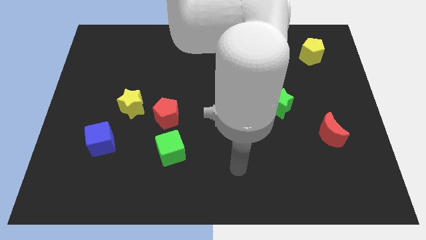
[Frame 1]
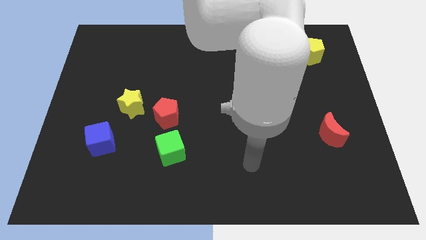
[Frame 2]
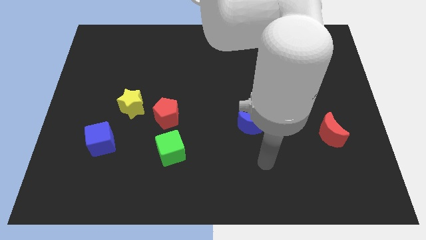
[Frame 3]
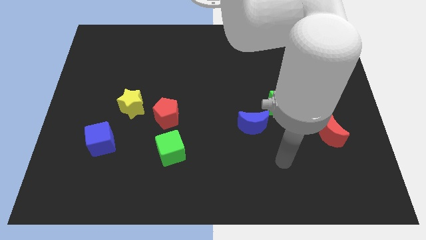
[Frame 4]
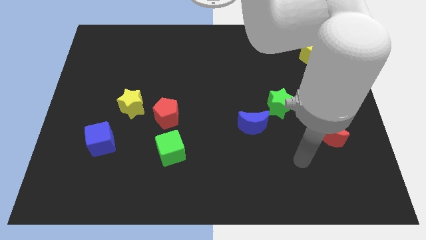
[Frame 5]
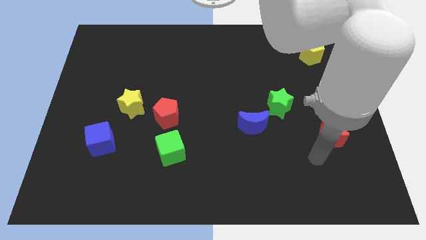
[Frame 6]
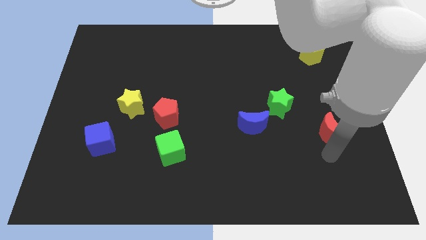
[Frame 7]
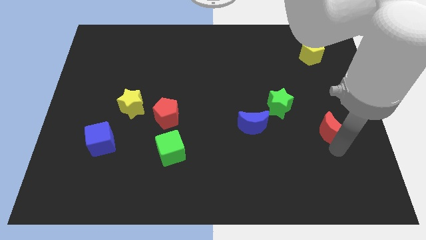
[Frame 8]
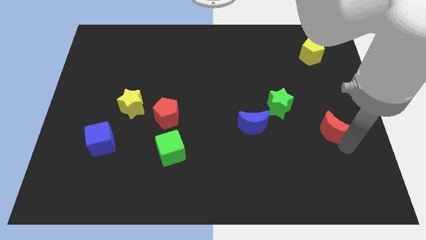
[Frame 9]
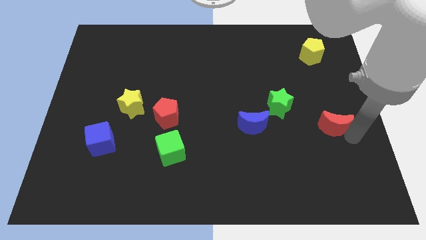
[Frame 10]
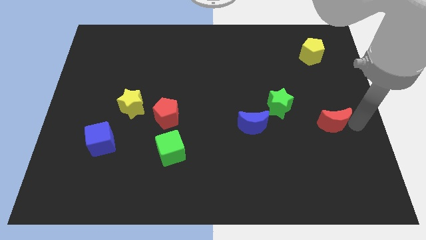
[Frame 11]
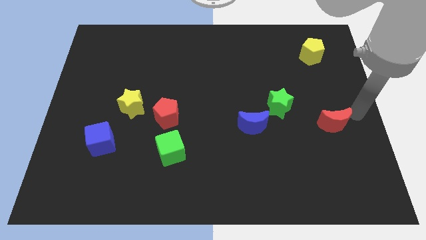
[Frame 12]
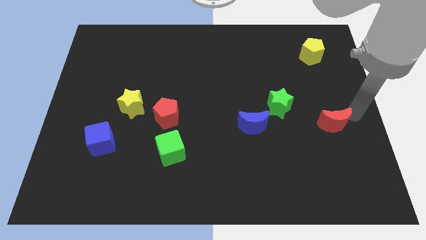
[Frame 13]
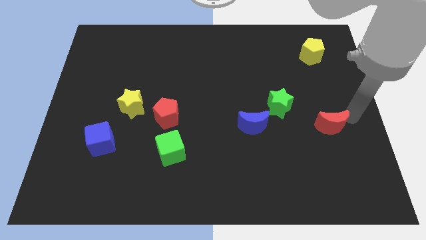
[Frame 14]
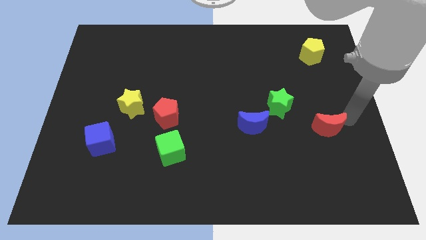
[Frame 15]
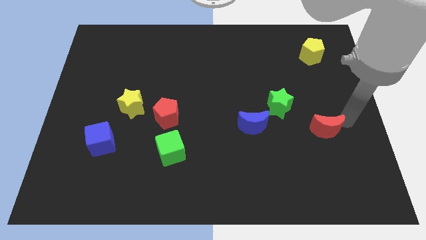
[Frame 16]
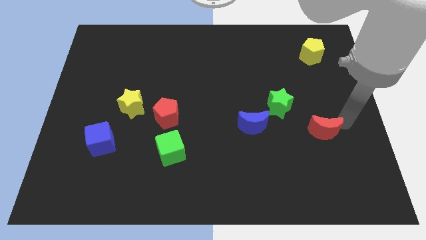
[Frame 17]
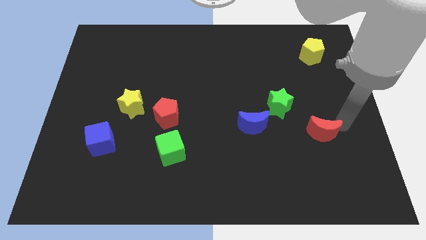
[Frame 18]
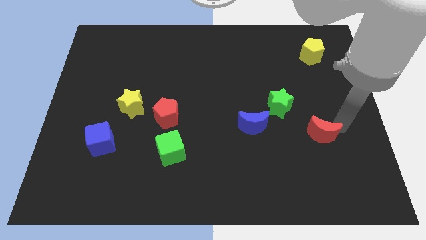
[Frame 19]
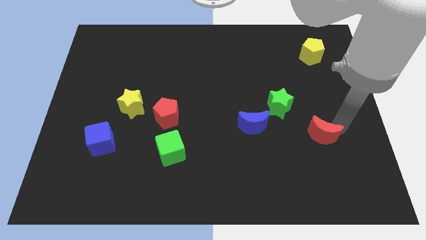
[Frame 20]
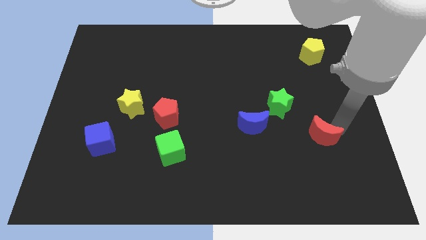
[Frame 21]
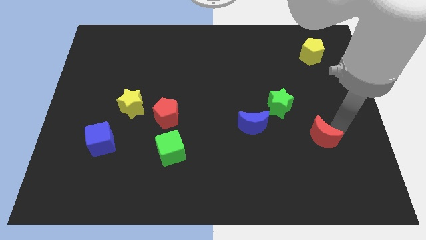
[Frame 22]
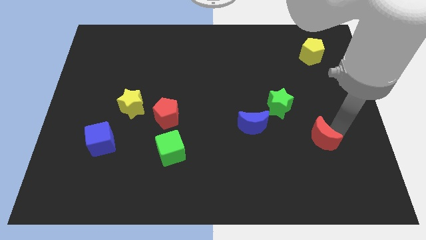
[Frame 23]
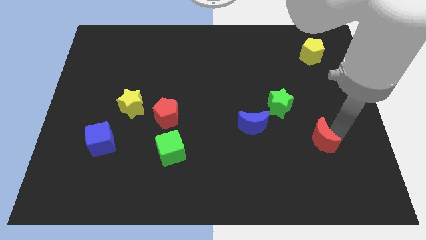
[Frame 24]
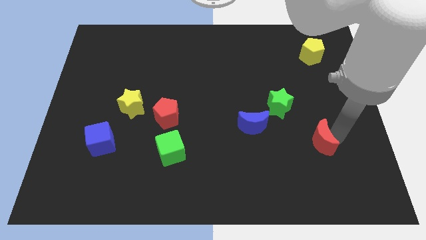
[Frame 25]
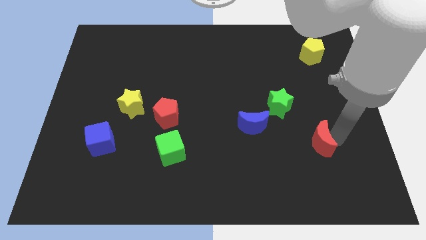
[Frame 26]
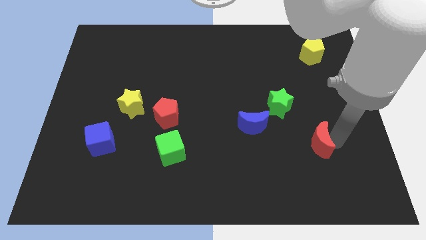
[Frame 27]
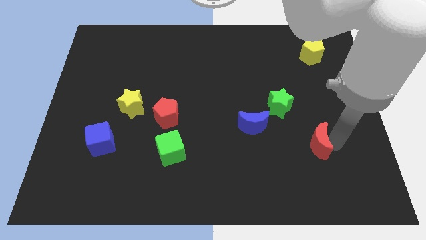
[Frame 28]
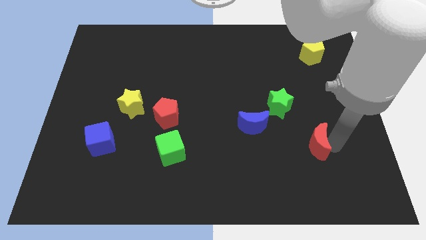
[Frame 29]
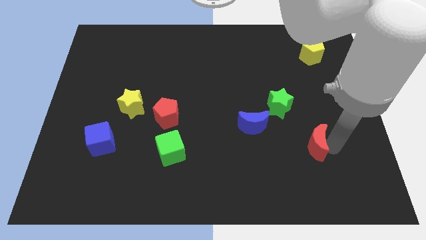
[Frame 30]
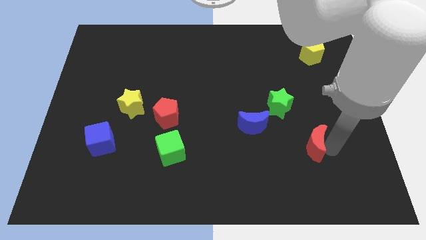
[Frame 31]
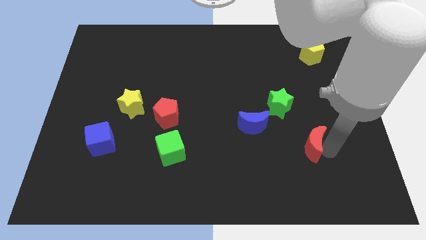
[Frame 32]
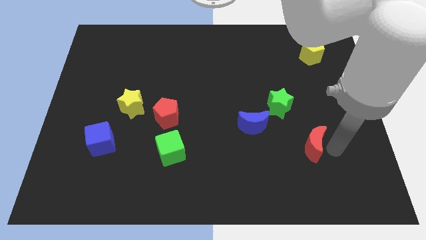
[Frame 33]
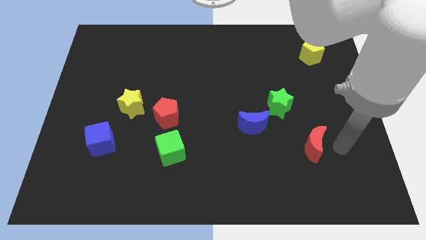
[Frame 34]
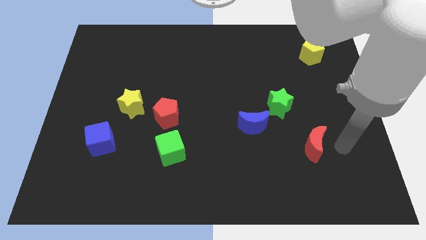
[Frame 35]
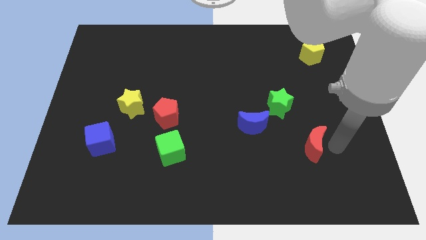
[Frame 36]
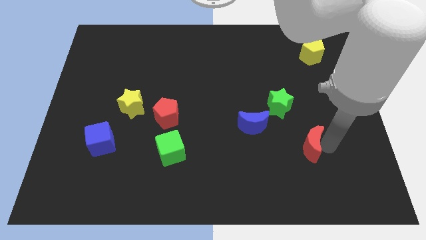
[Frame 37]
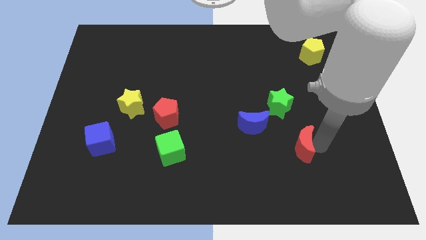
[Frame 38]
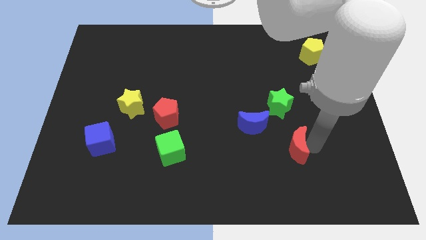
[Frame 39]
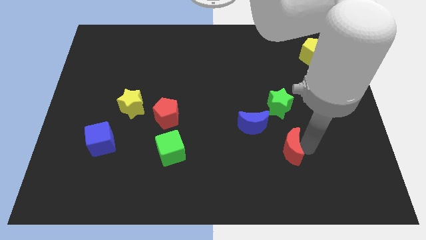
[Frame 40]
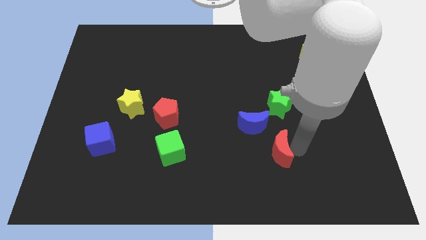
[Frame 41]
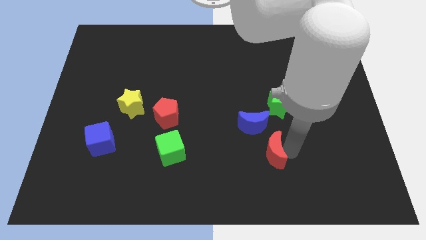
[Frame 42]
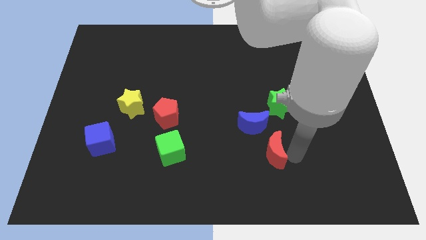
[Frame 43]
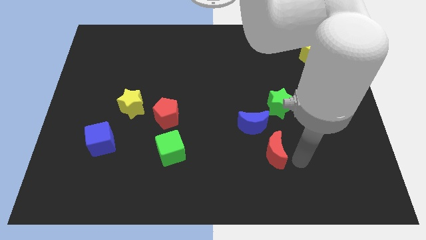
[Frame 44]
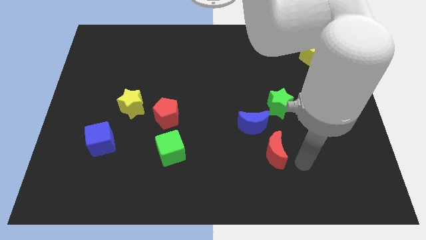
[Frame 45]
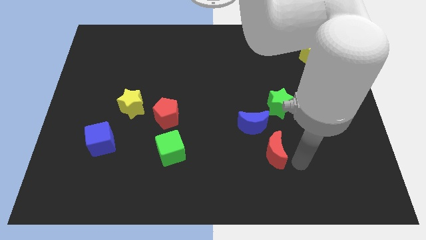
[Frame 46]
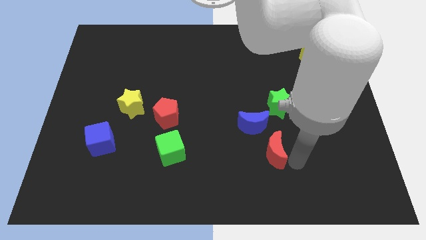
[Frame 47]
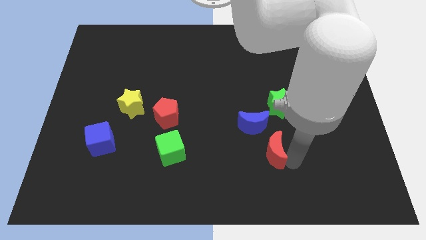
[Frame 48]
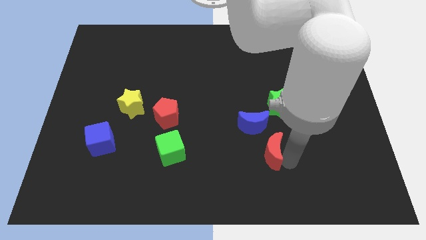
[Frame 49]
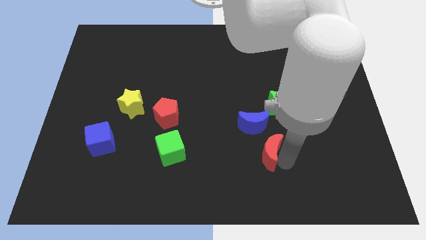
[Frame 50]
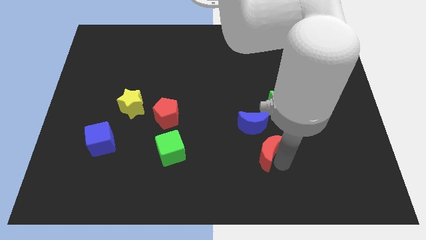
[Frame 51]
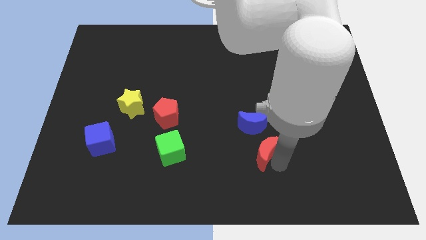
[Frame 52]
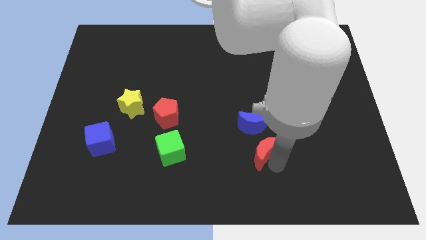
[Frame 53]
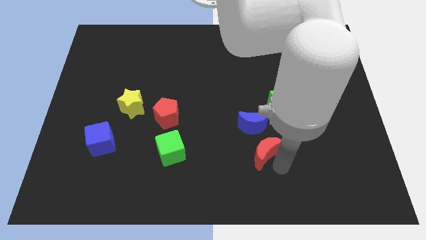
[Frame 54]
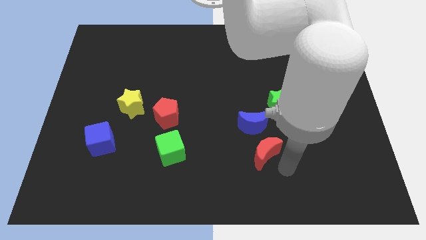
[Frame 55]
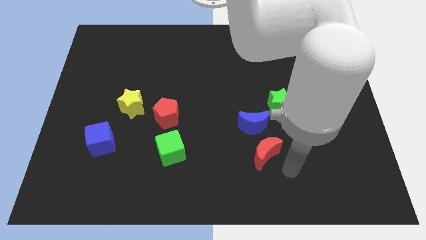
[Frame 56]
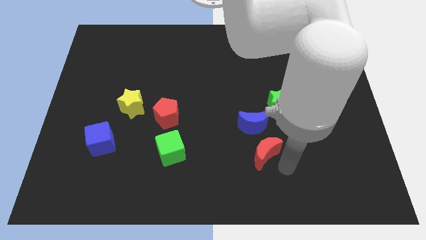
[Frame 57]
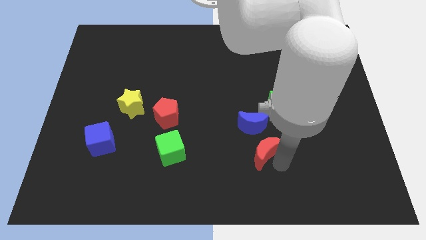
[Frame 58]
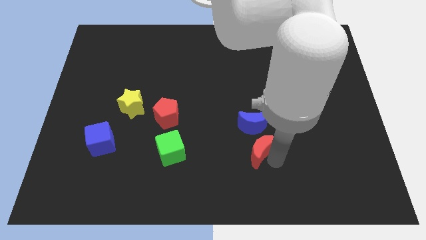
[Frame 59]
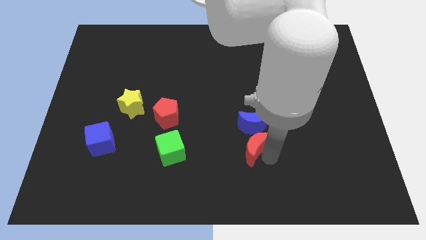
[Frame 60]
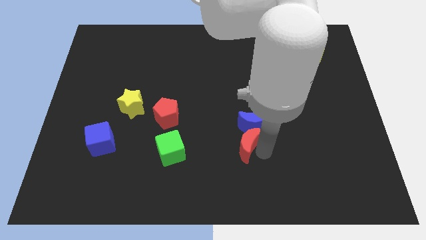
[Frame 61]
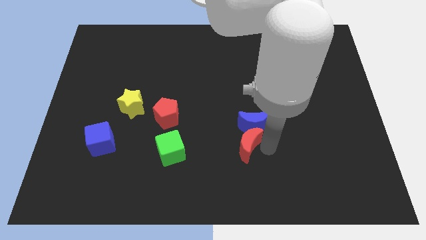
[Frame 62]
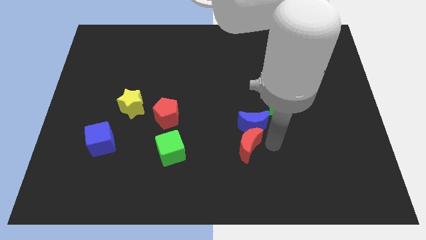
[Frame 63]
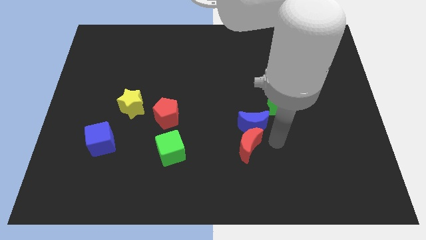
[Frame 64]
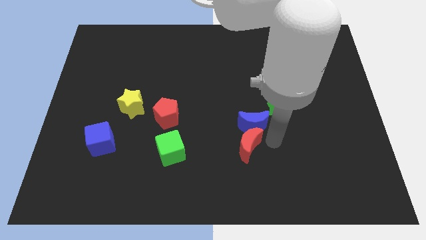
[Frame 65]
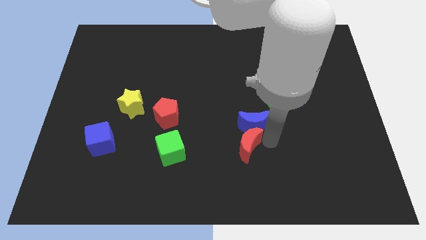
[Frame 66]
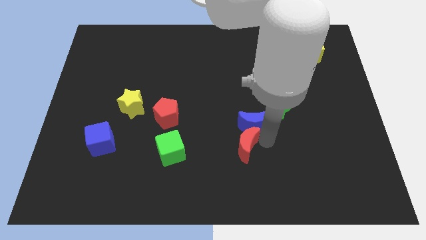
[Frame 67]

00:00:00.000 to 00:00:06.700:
move the red moon to the right of the green cube

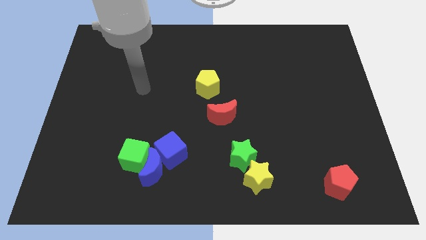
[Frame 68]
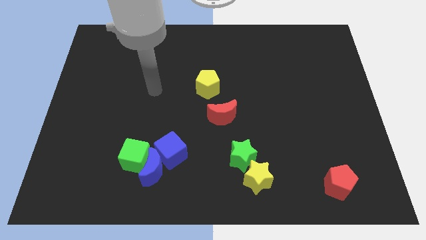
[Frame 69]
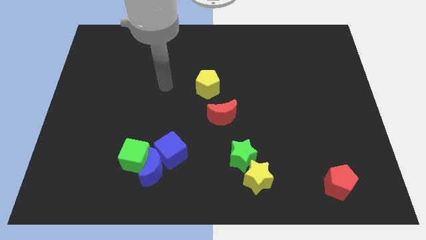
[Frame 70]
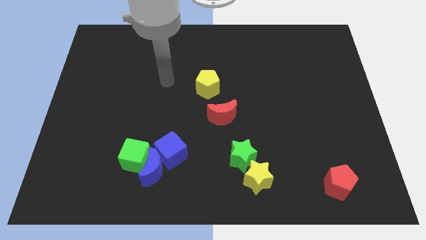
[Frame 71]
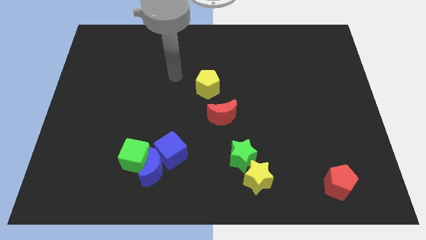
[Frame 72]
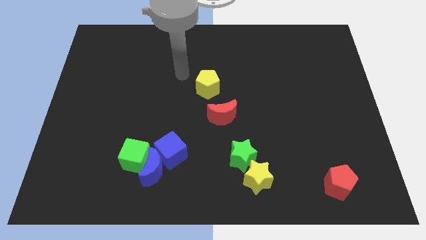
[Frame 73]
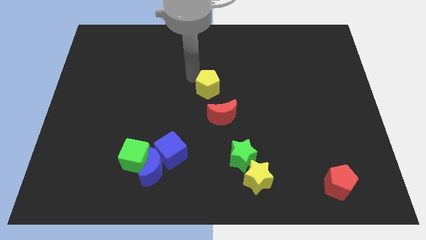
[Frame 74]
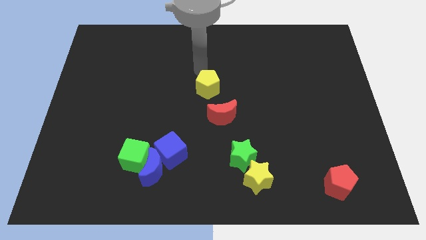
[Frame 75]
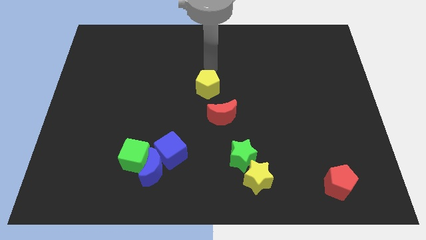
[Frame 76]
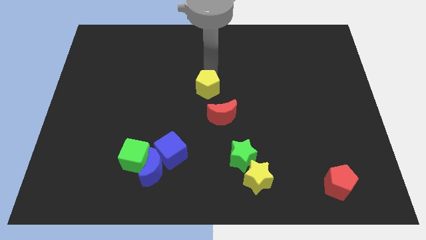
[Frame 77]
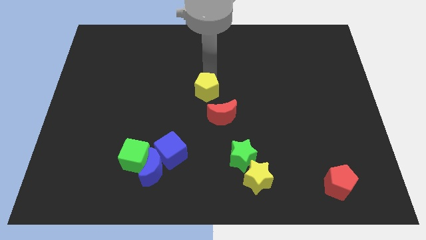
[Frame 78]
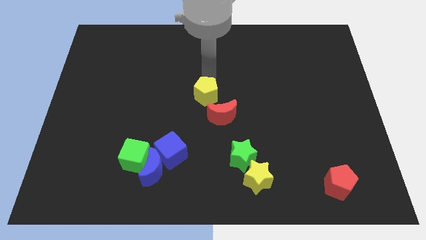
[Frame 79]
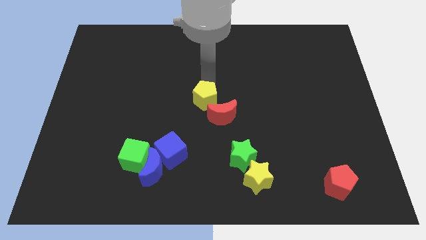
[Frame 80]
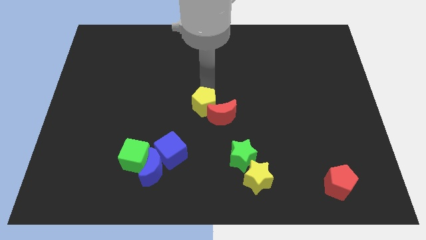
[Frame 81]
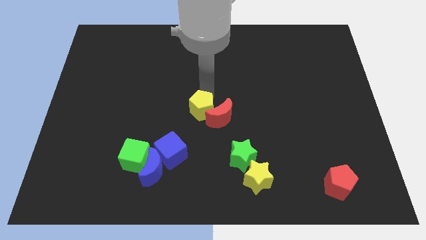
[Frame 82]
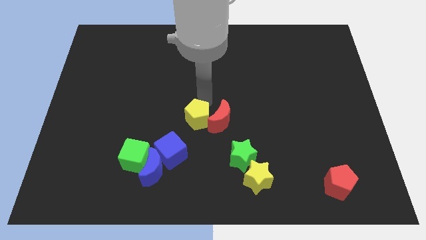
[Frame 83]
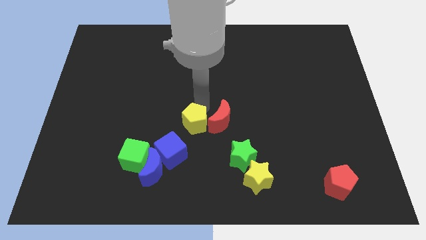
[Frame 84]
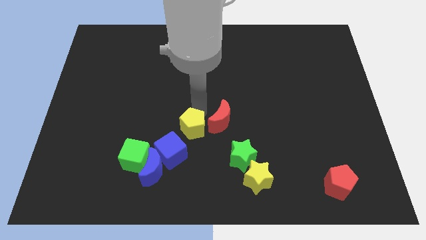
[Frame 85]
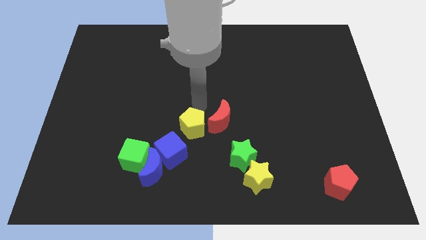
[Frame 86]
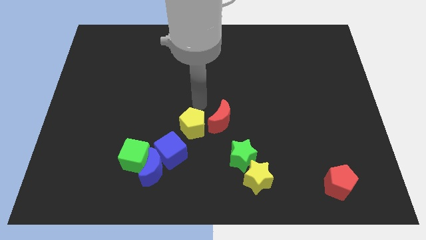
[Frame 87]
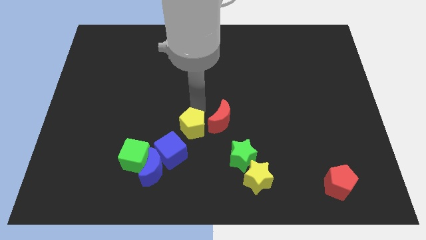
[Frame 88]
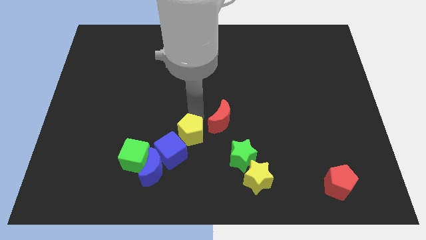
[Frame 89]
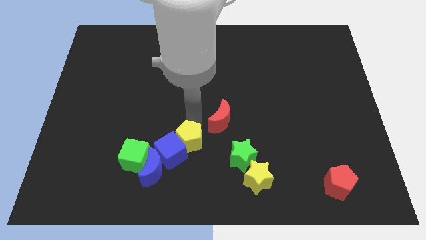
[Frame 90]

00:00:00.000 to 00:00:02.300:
slide the yellow pentagon right of the green cube
